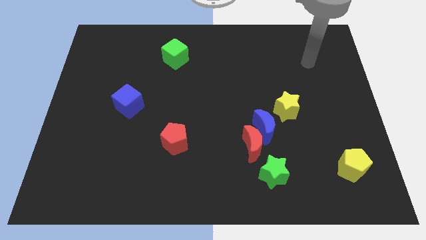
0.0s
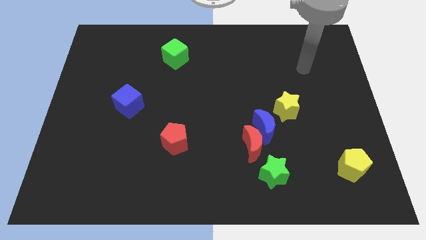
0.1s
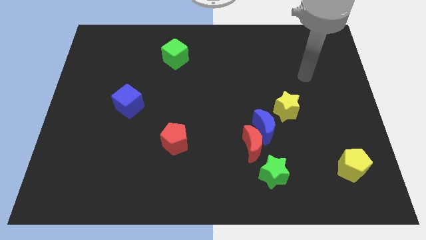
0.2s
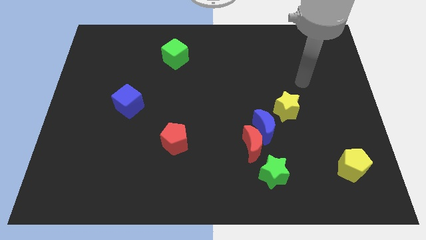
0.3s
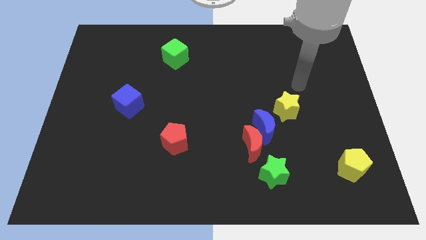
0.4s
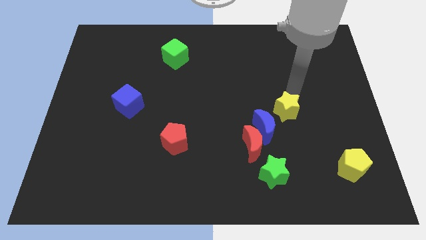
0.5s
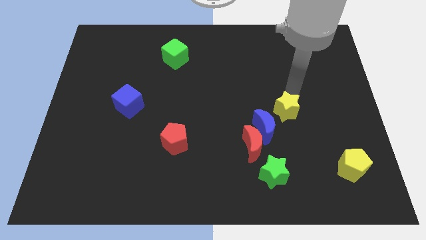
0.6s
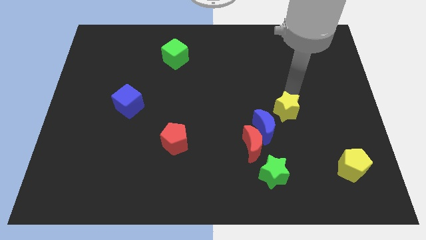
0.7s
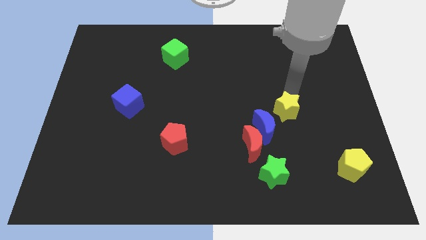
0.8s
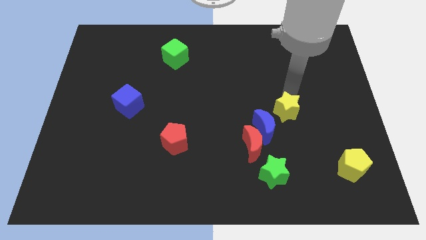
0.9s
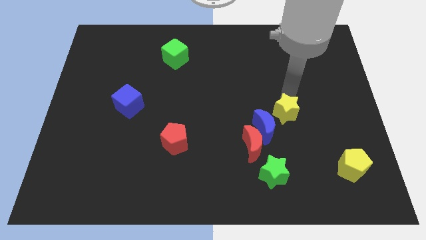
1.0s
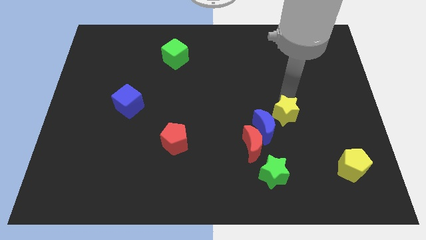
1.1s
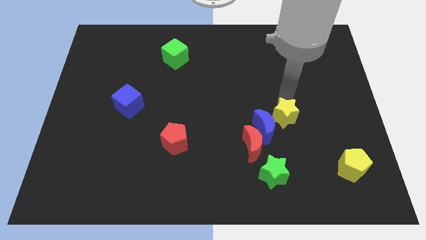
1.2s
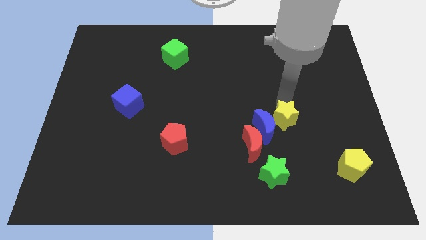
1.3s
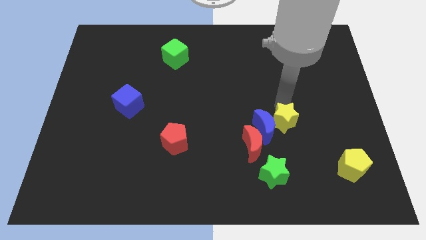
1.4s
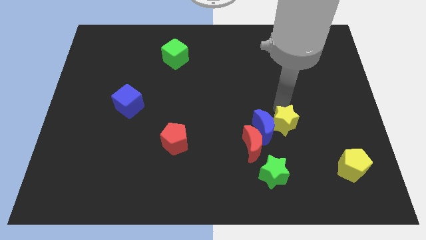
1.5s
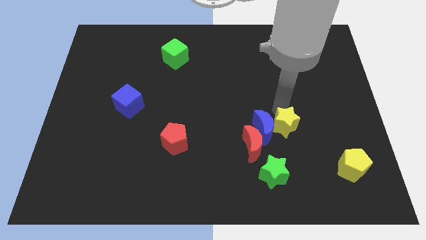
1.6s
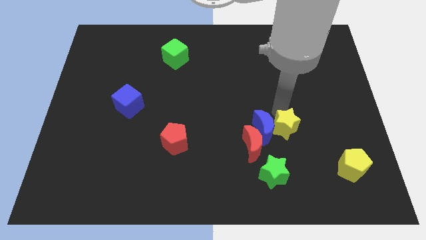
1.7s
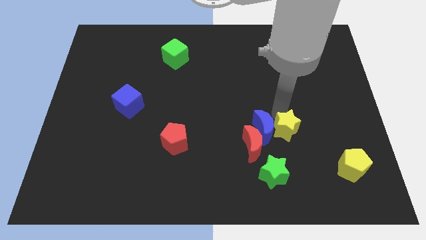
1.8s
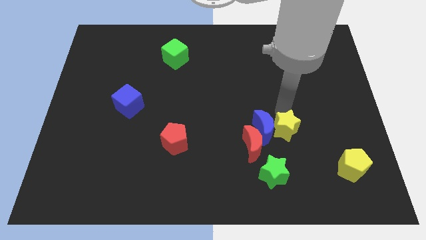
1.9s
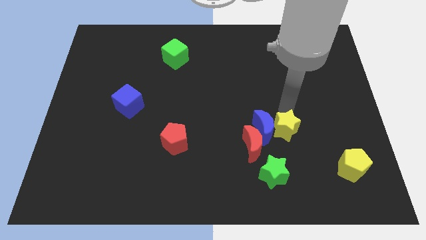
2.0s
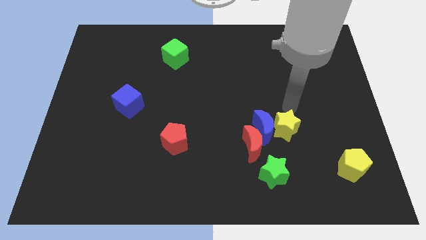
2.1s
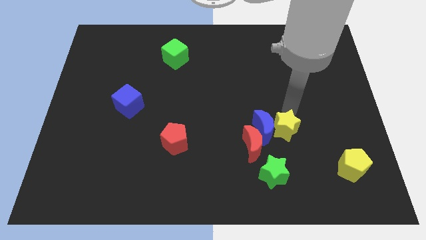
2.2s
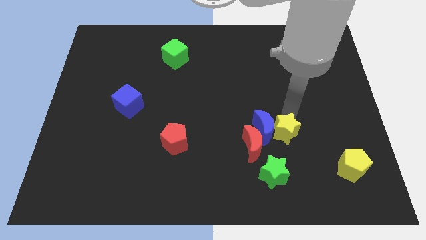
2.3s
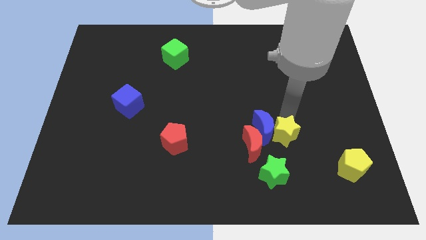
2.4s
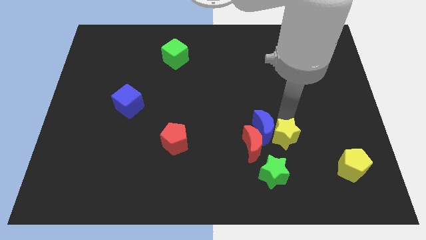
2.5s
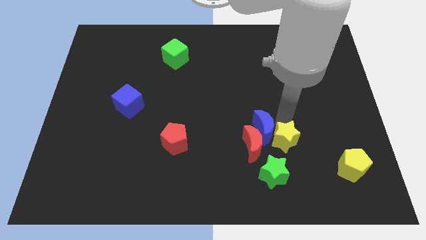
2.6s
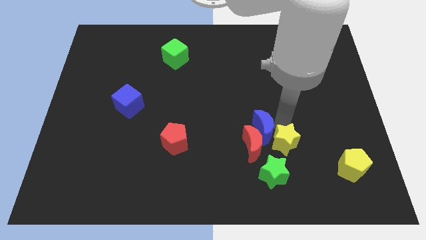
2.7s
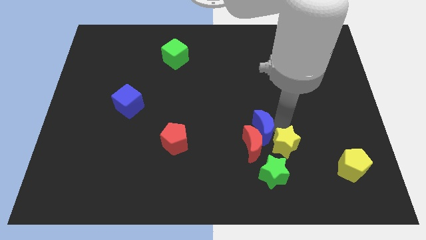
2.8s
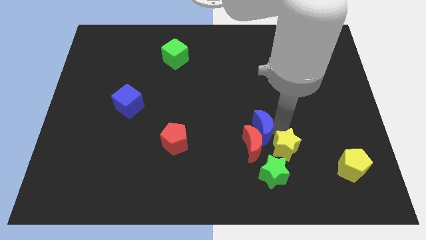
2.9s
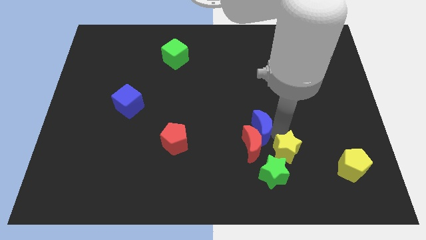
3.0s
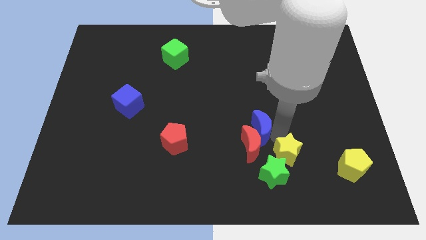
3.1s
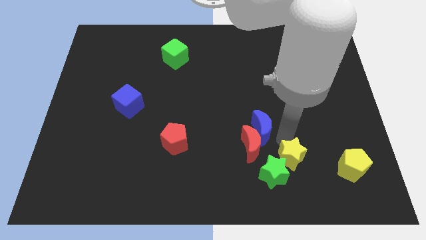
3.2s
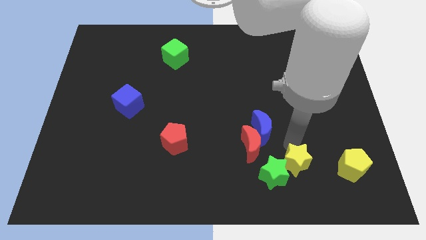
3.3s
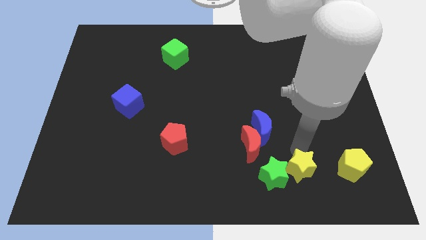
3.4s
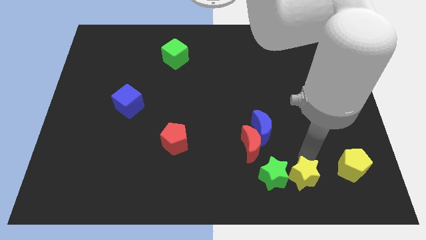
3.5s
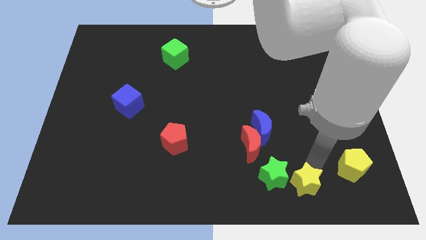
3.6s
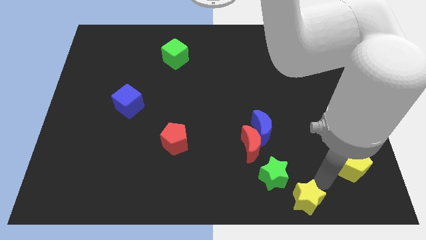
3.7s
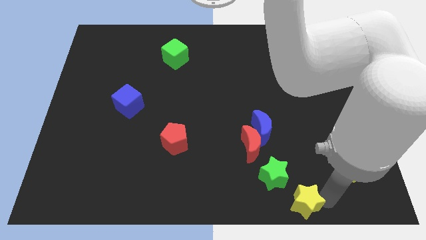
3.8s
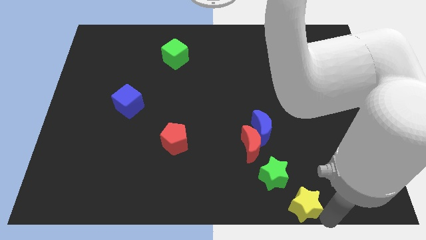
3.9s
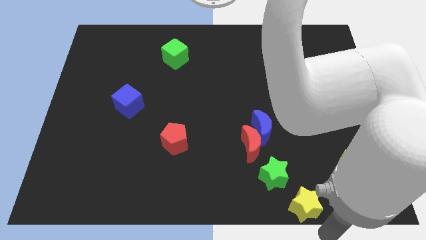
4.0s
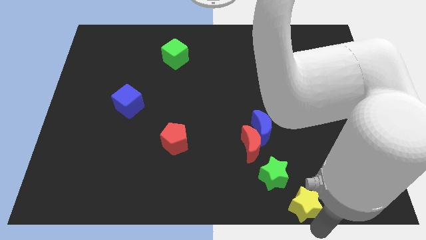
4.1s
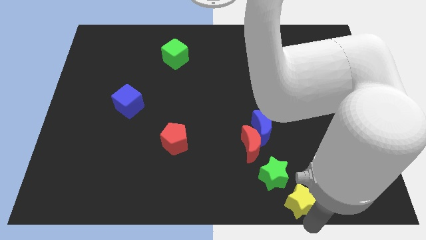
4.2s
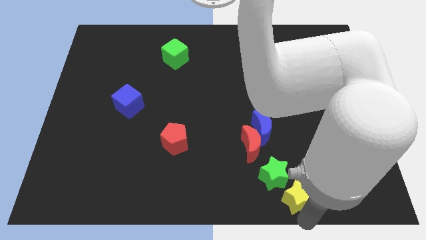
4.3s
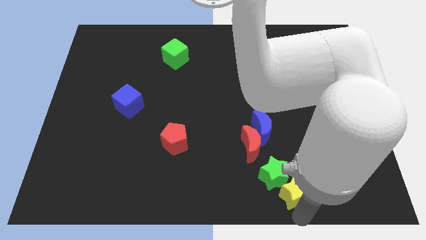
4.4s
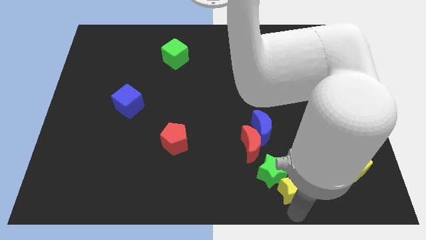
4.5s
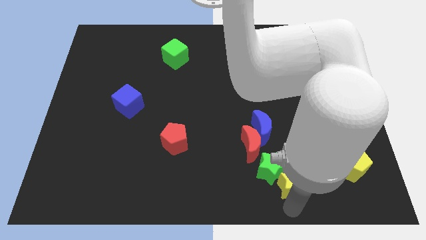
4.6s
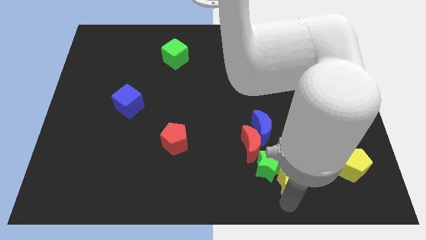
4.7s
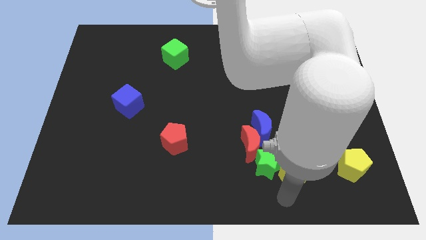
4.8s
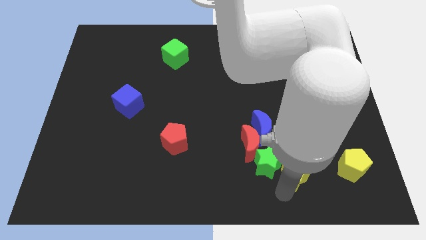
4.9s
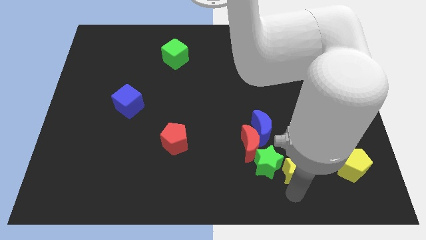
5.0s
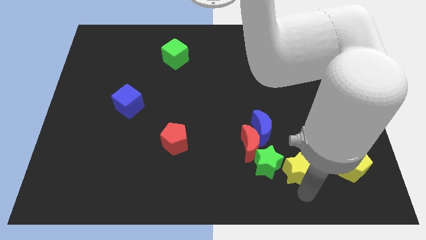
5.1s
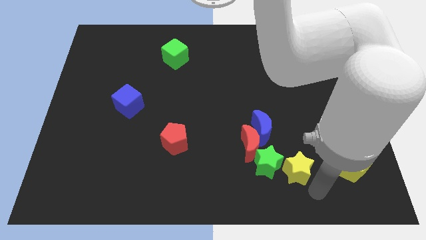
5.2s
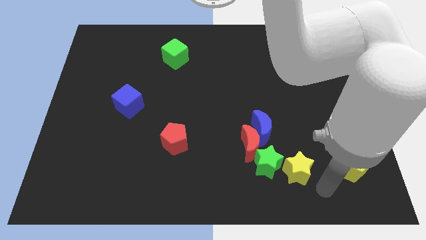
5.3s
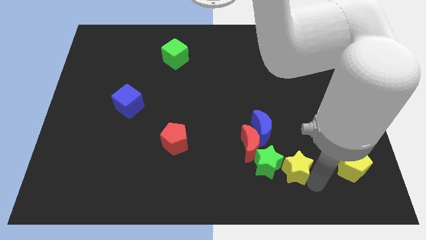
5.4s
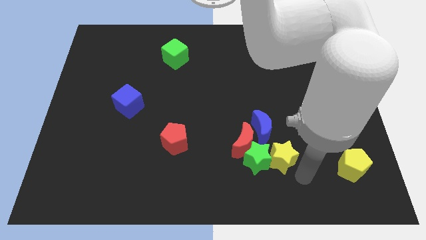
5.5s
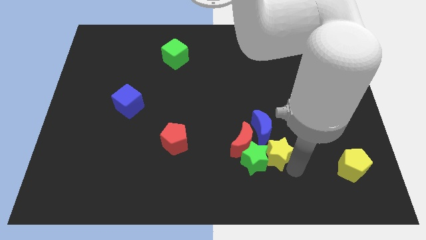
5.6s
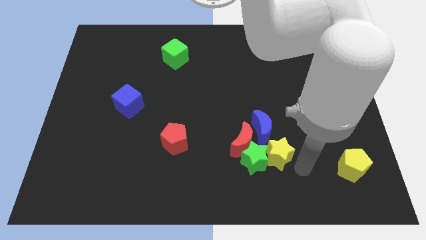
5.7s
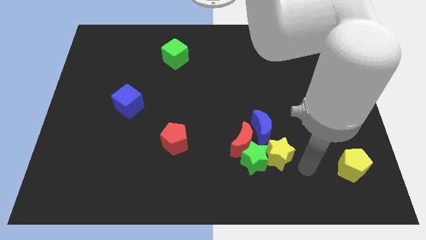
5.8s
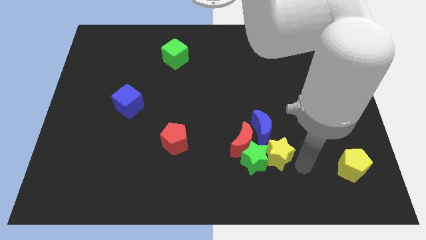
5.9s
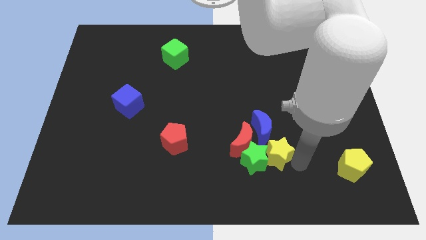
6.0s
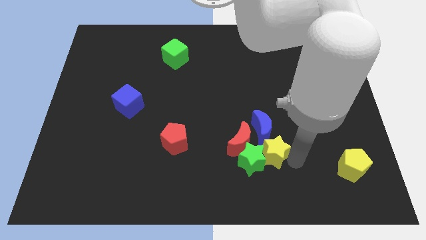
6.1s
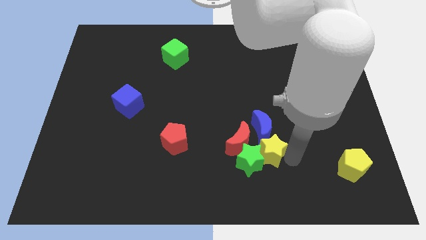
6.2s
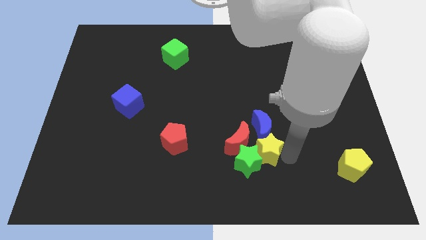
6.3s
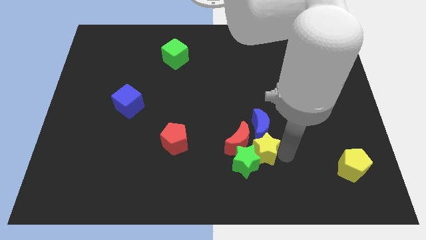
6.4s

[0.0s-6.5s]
move the yellow star next to the red moon

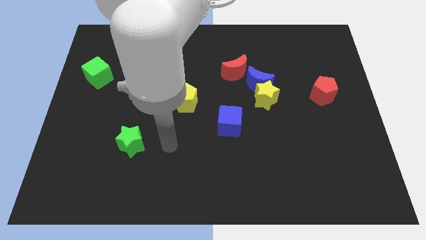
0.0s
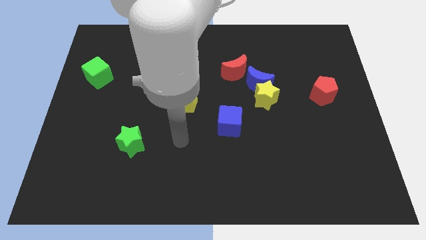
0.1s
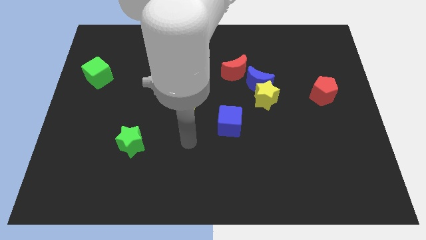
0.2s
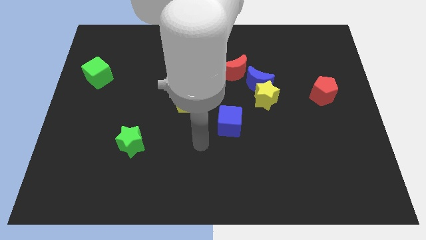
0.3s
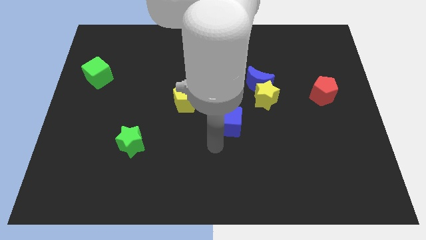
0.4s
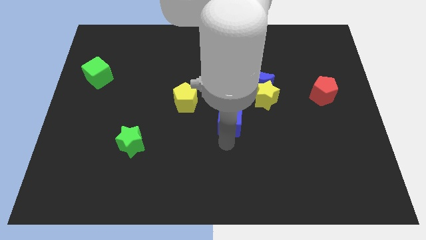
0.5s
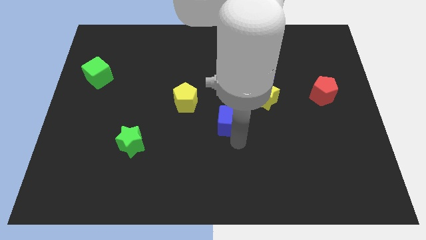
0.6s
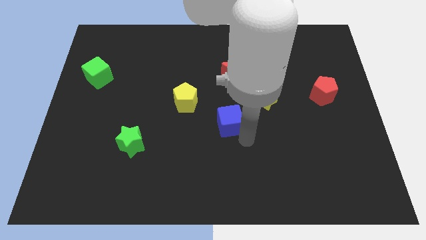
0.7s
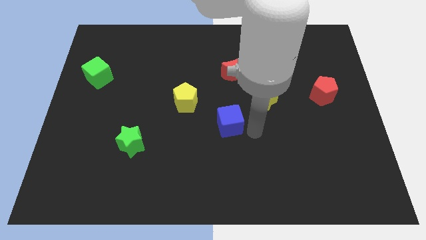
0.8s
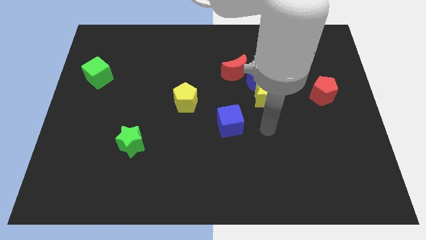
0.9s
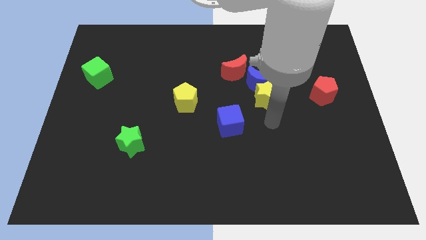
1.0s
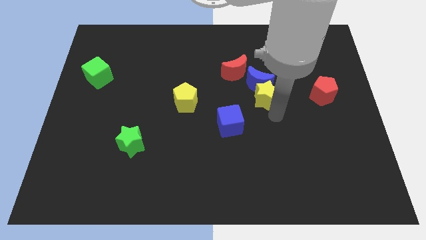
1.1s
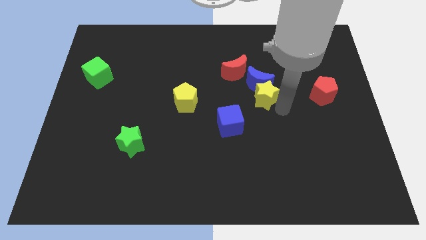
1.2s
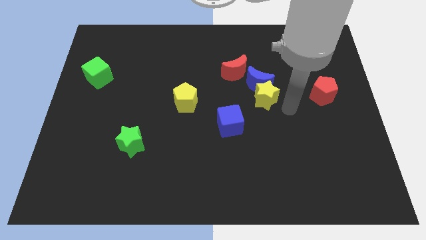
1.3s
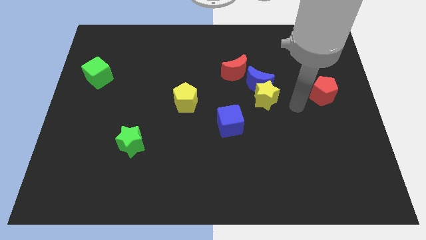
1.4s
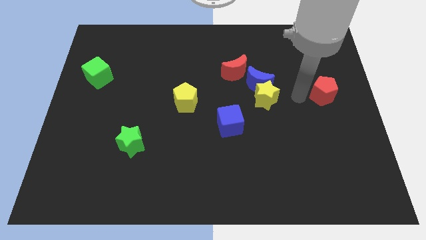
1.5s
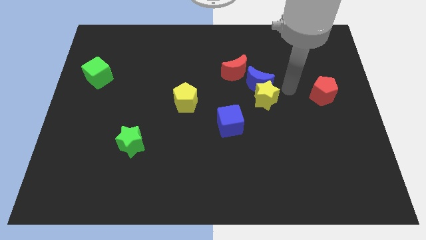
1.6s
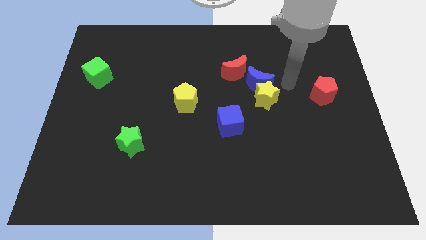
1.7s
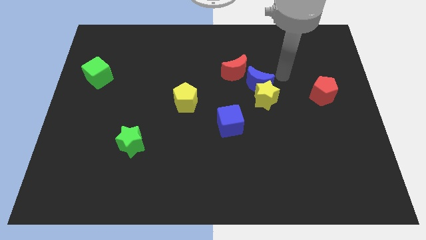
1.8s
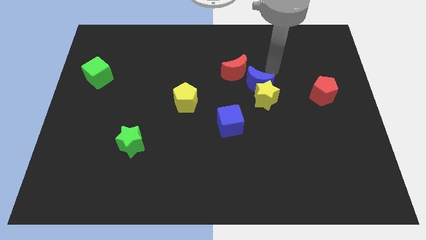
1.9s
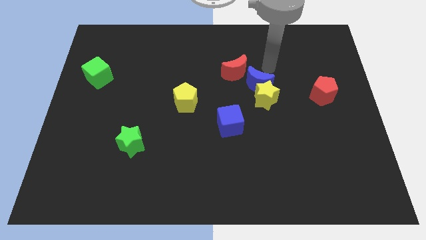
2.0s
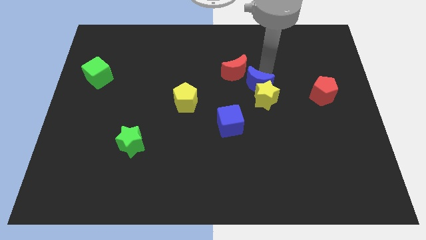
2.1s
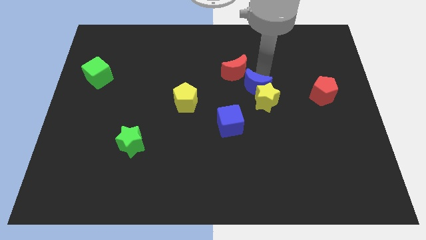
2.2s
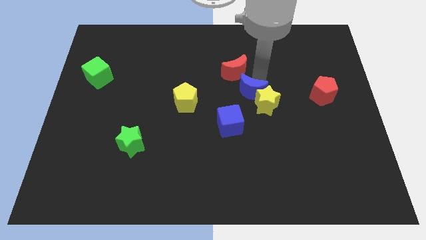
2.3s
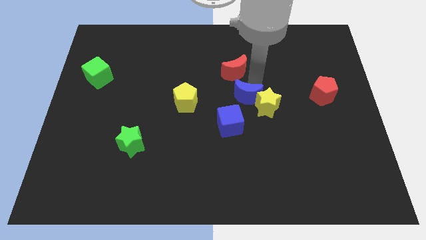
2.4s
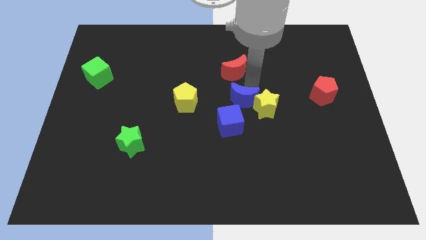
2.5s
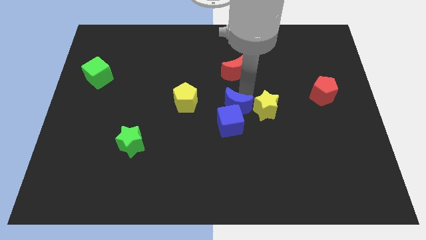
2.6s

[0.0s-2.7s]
put the blue moon towards the blue cube
